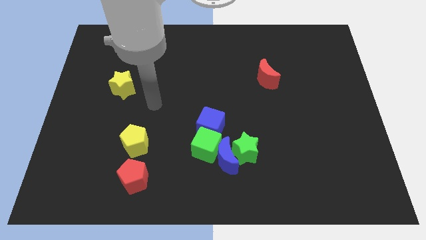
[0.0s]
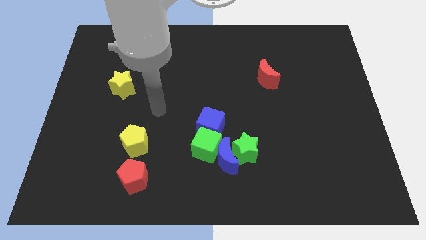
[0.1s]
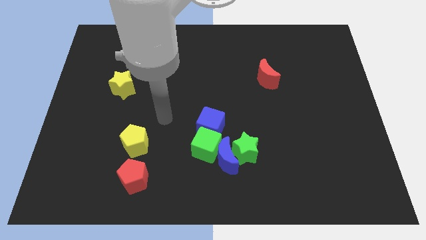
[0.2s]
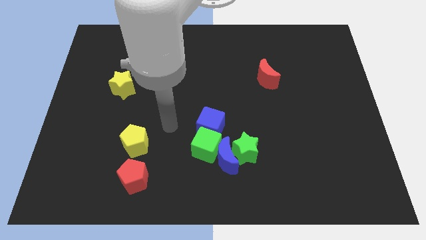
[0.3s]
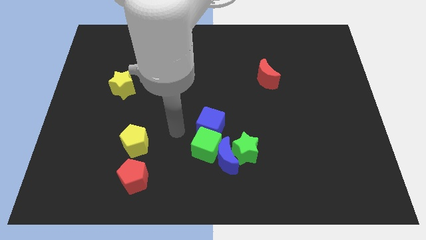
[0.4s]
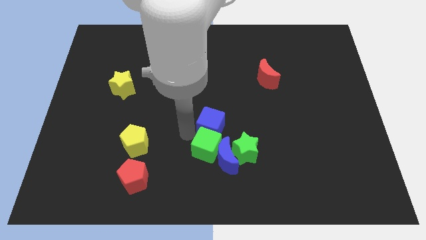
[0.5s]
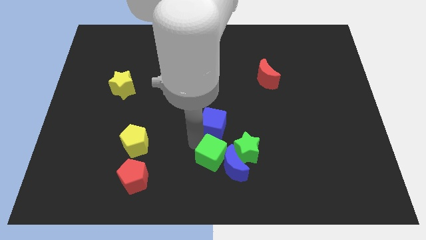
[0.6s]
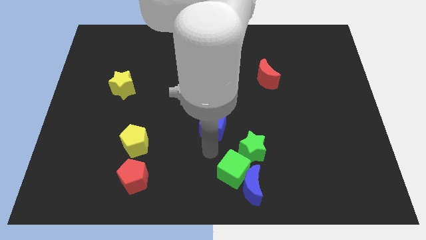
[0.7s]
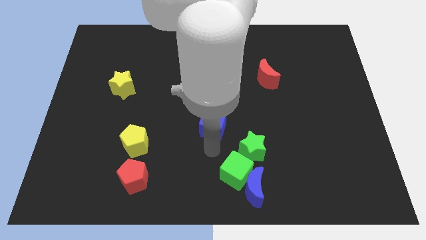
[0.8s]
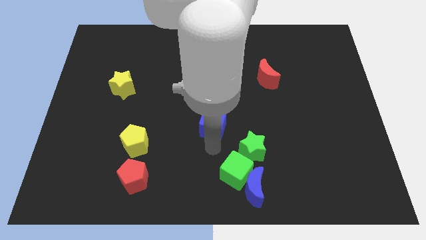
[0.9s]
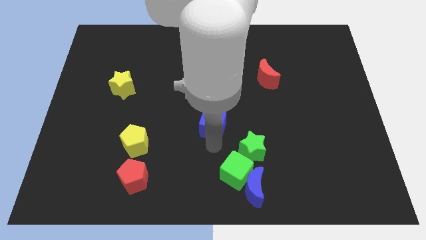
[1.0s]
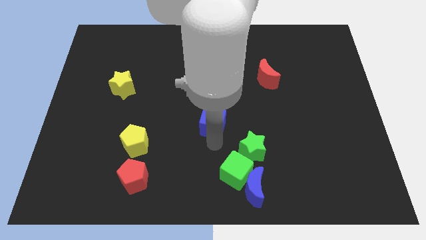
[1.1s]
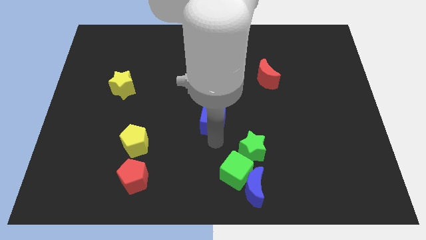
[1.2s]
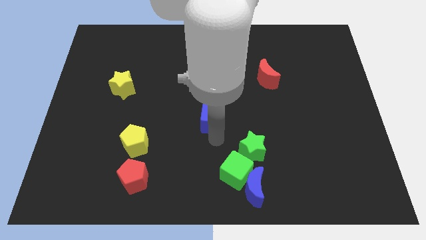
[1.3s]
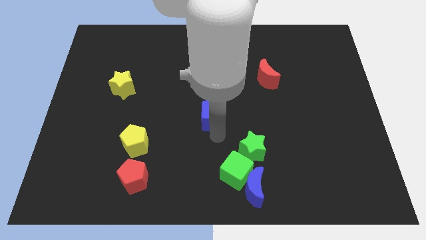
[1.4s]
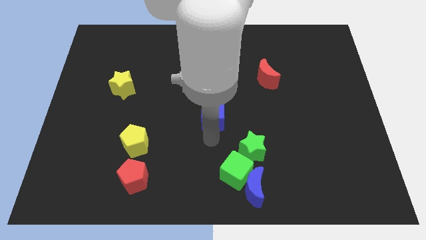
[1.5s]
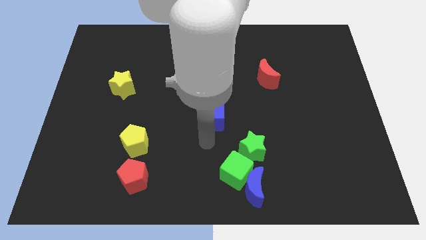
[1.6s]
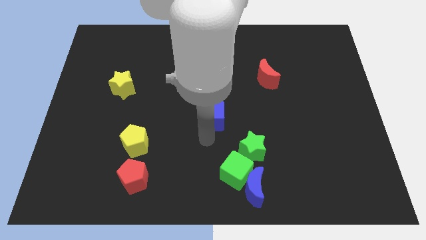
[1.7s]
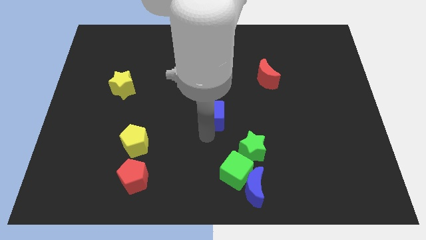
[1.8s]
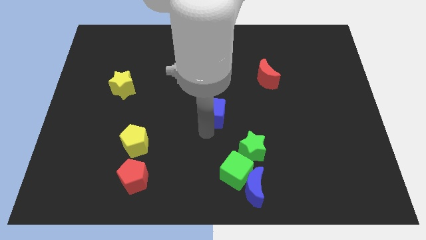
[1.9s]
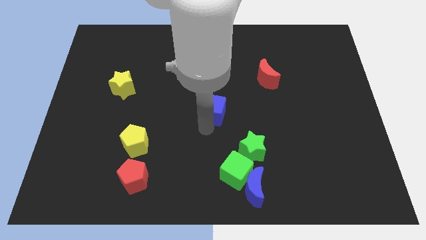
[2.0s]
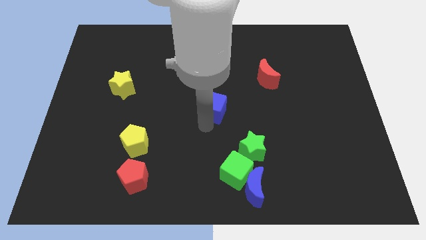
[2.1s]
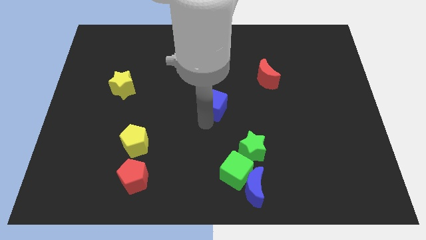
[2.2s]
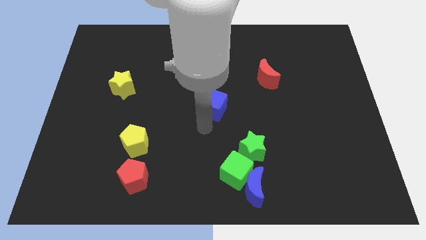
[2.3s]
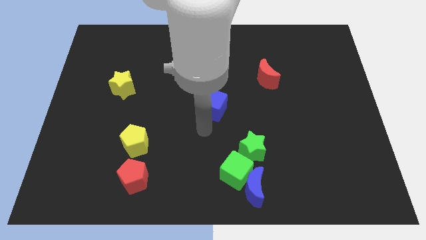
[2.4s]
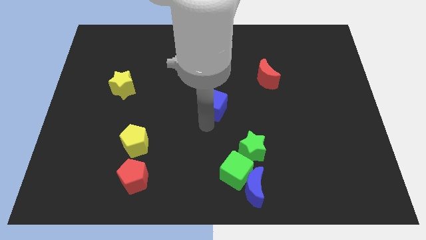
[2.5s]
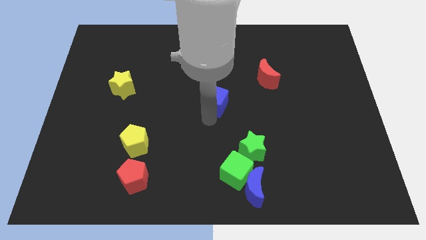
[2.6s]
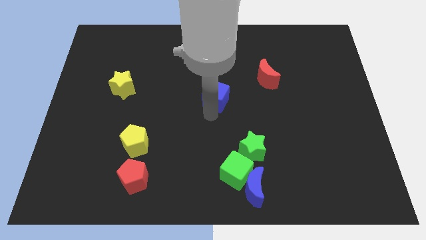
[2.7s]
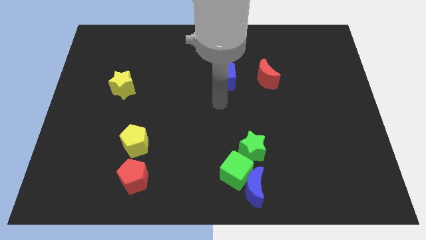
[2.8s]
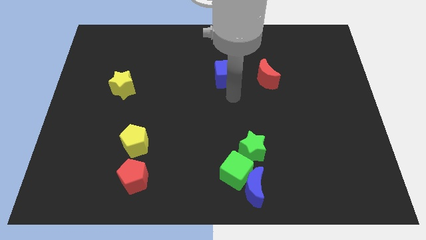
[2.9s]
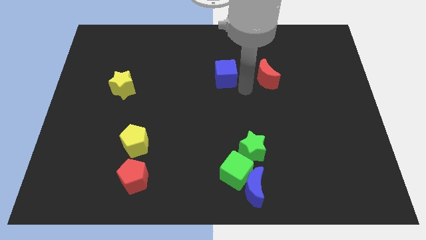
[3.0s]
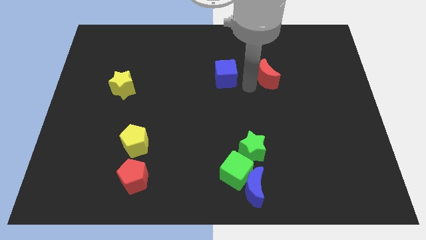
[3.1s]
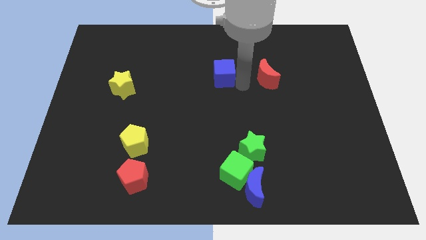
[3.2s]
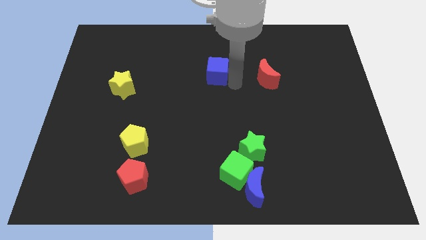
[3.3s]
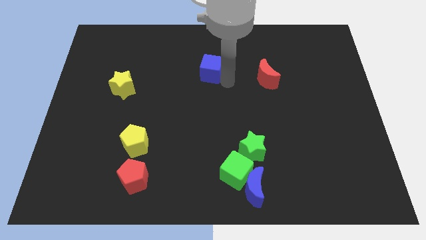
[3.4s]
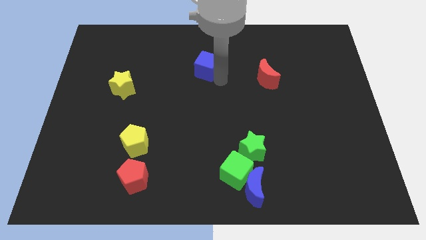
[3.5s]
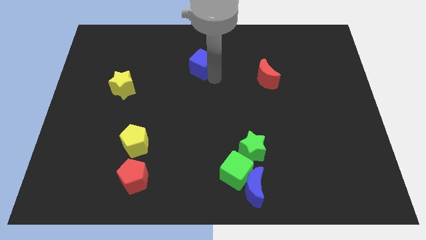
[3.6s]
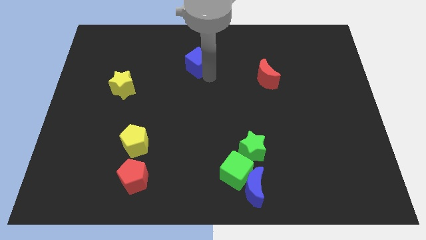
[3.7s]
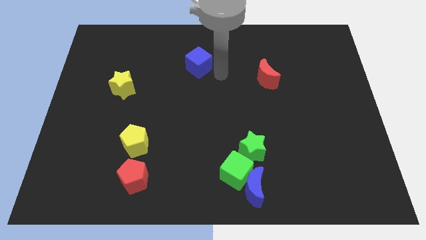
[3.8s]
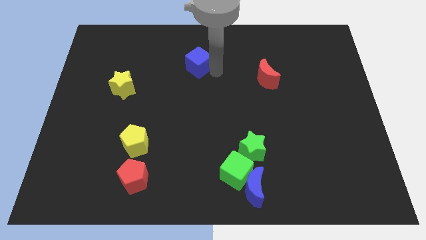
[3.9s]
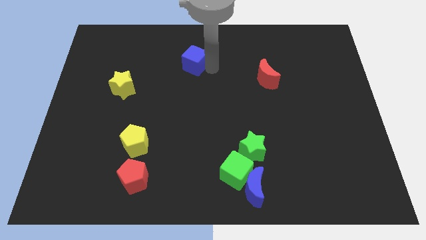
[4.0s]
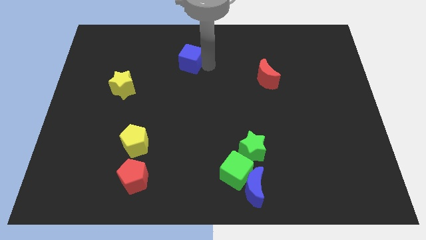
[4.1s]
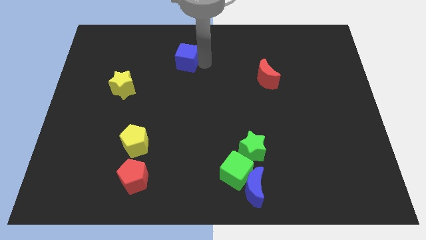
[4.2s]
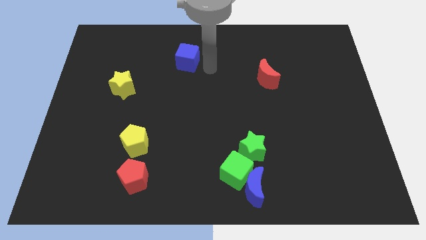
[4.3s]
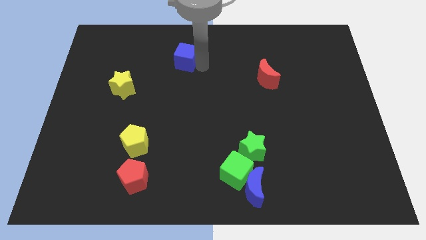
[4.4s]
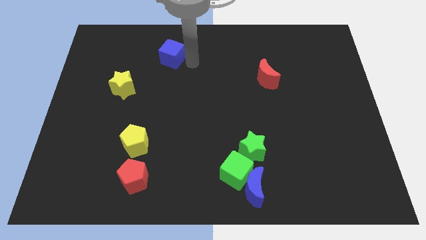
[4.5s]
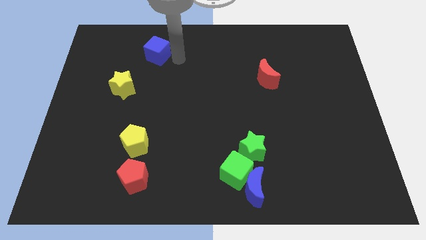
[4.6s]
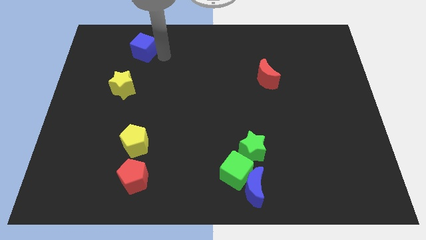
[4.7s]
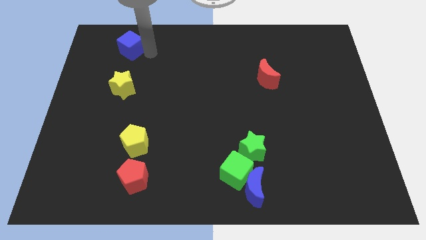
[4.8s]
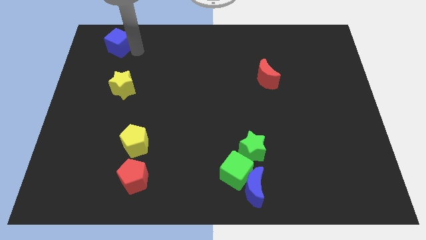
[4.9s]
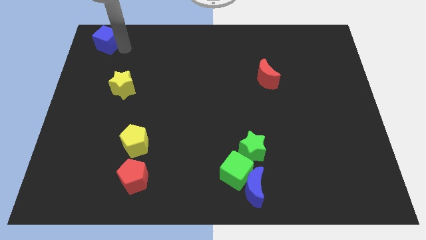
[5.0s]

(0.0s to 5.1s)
push the blue cube to the top left corner

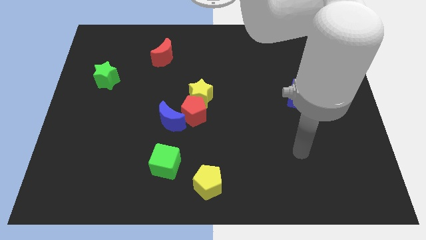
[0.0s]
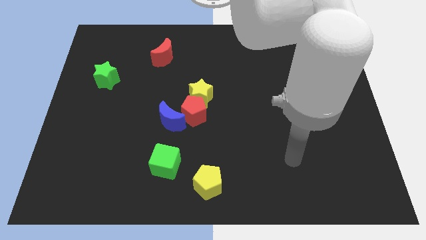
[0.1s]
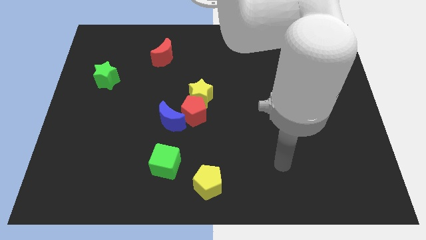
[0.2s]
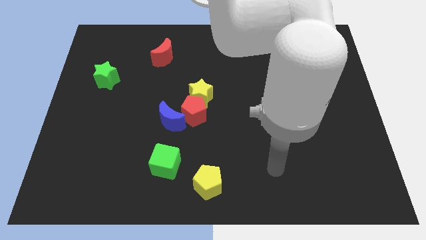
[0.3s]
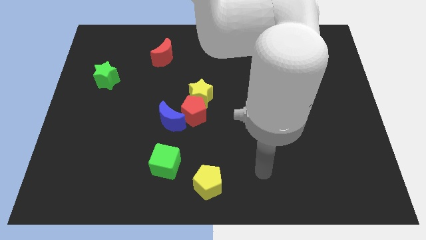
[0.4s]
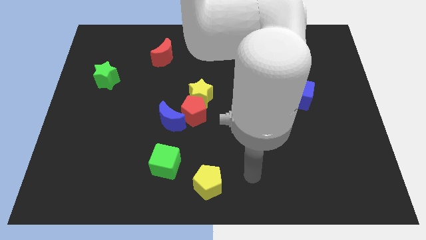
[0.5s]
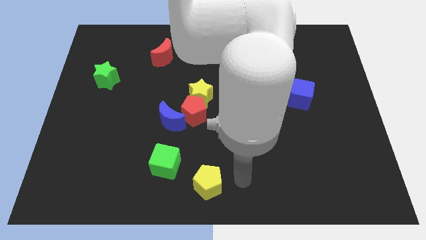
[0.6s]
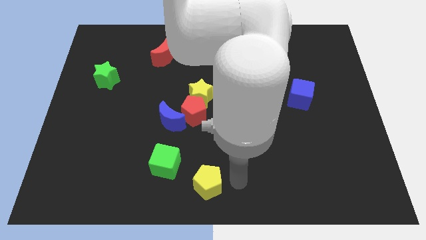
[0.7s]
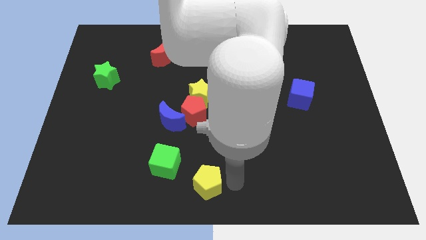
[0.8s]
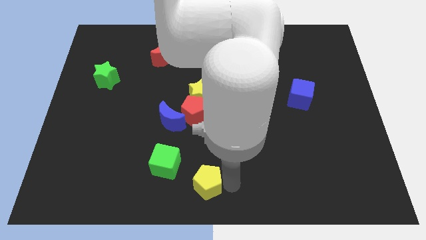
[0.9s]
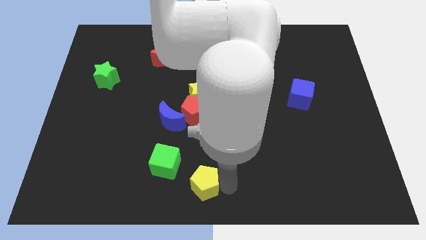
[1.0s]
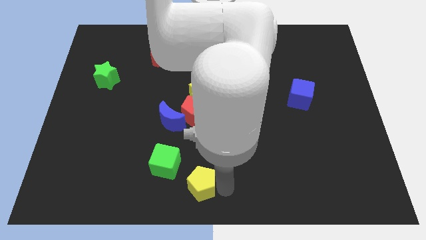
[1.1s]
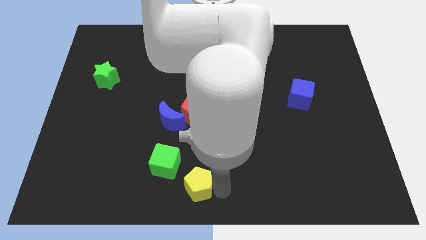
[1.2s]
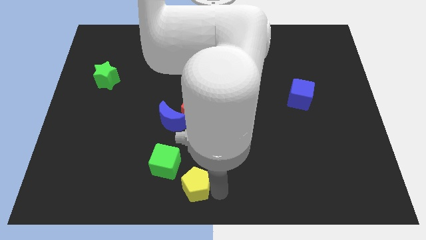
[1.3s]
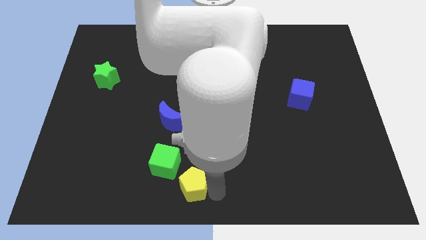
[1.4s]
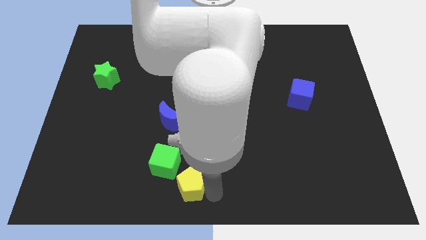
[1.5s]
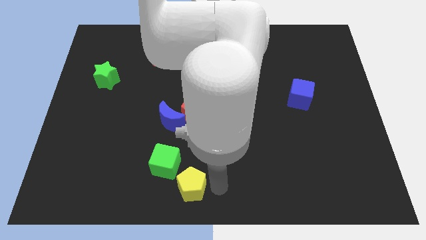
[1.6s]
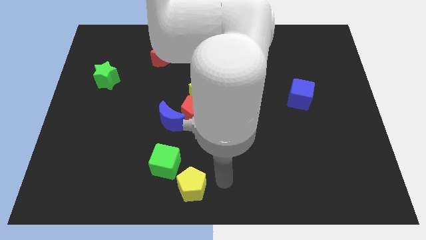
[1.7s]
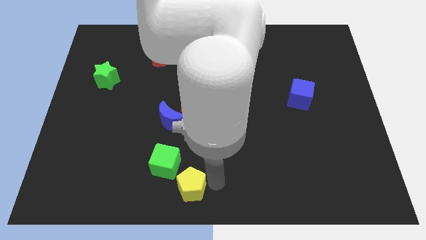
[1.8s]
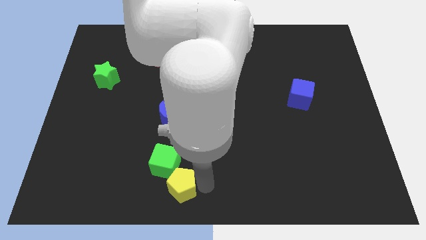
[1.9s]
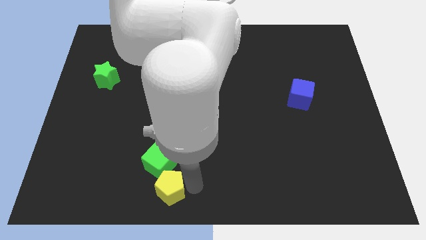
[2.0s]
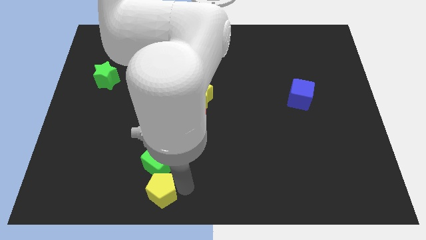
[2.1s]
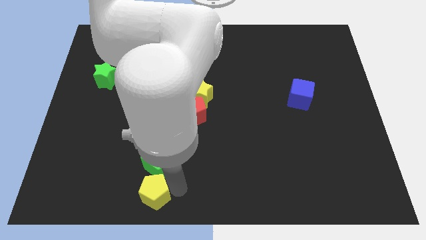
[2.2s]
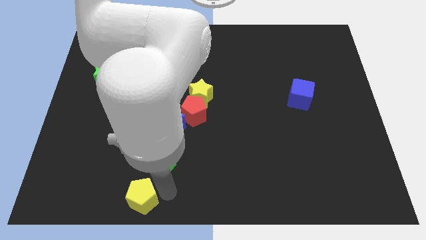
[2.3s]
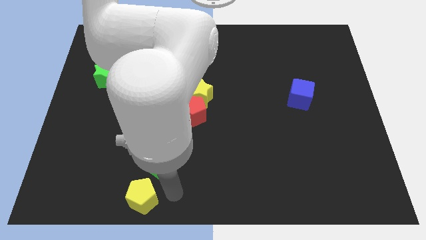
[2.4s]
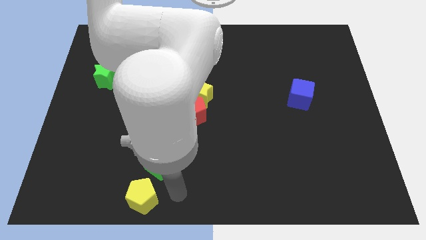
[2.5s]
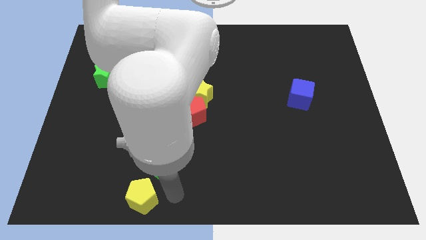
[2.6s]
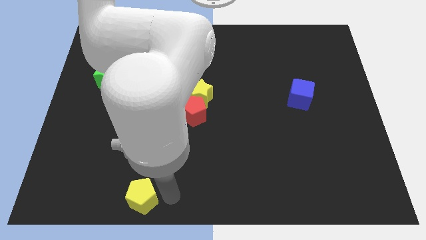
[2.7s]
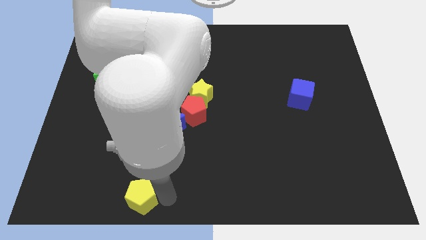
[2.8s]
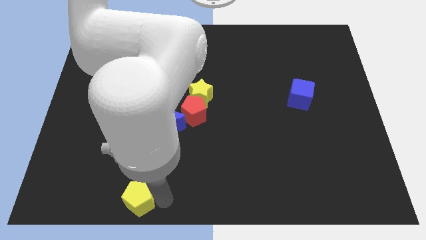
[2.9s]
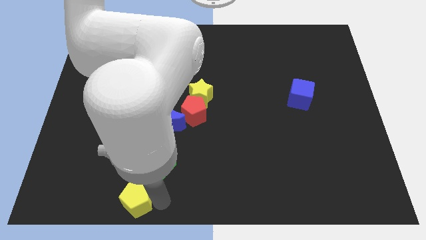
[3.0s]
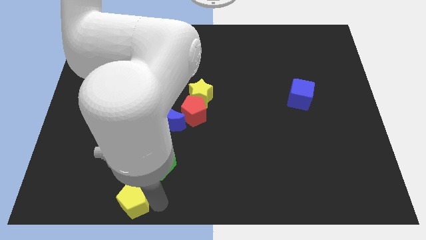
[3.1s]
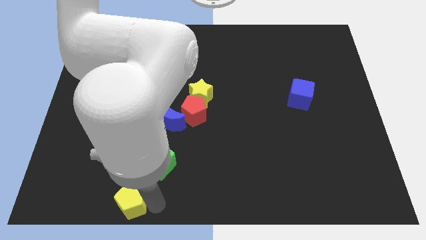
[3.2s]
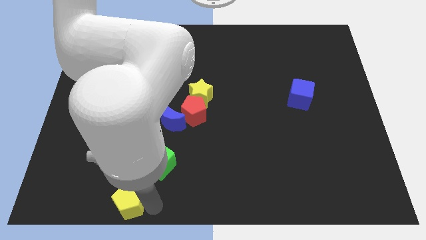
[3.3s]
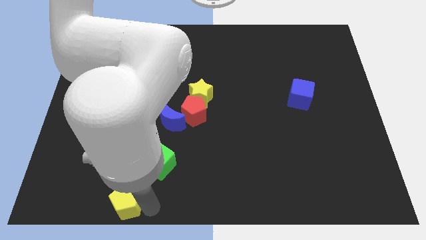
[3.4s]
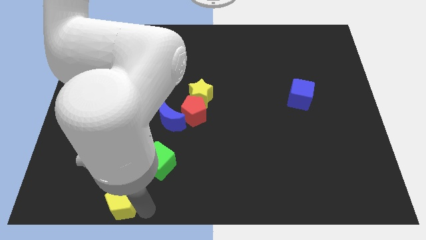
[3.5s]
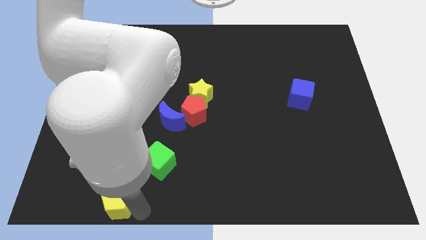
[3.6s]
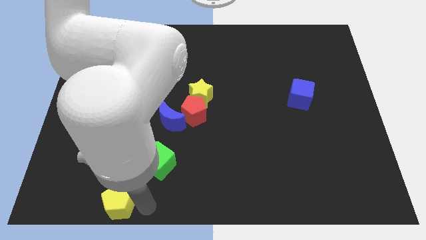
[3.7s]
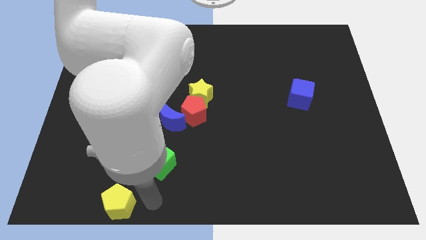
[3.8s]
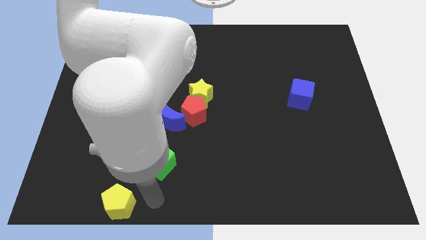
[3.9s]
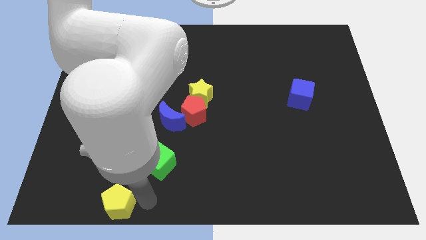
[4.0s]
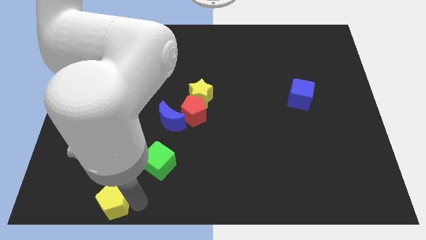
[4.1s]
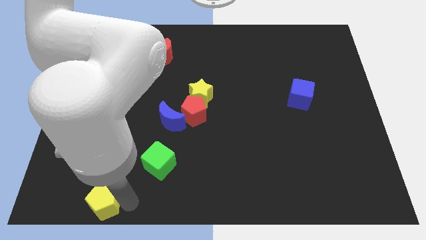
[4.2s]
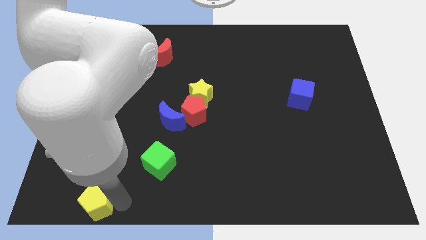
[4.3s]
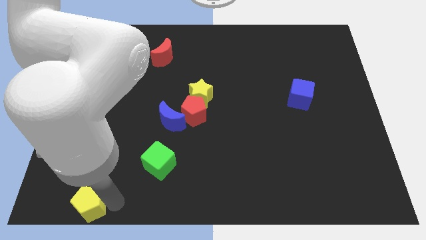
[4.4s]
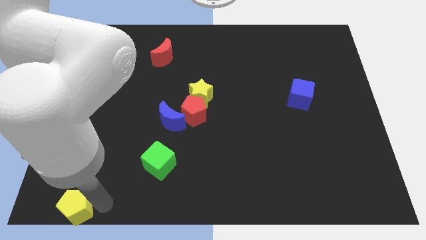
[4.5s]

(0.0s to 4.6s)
move the yellow pentagon to the lower left corner
